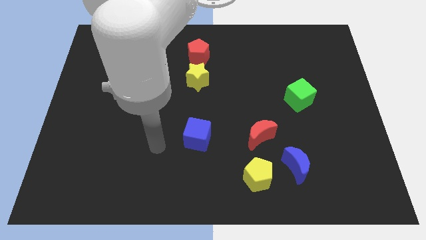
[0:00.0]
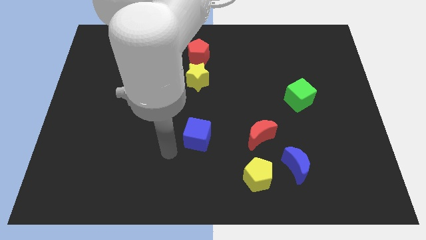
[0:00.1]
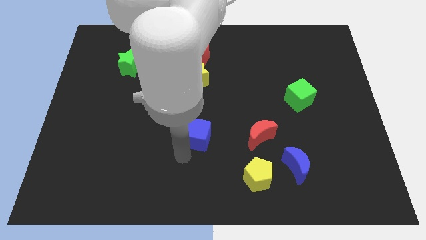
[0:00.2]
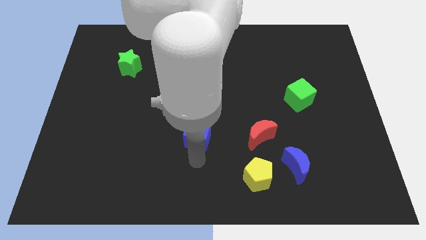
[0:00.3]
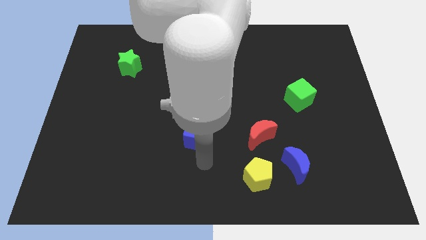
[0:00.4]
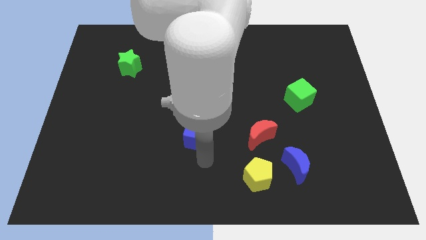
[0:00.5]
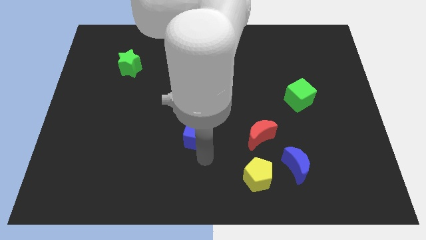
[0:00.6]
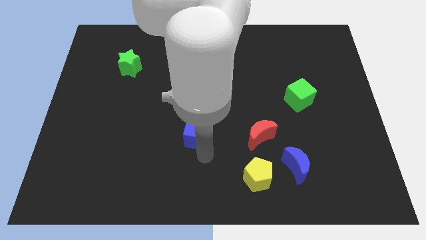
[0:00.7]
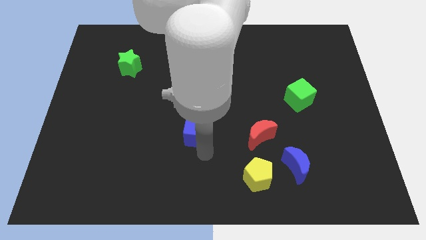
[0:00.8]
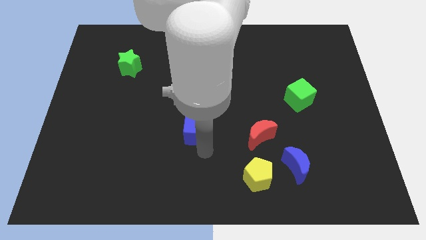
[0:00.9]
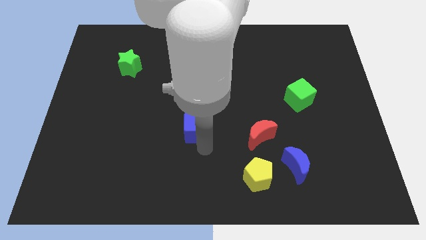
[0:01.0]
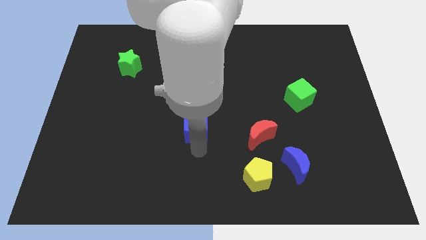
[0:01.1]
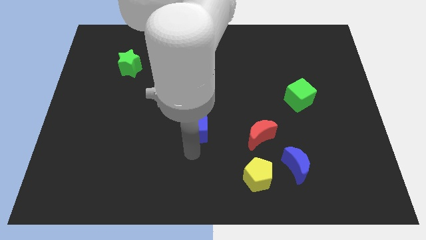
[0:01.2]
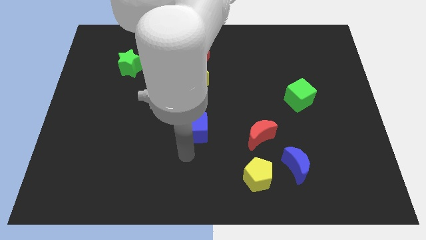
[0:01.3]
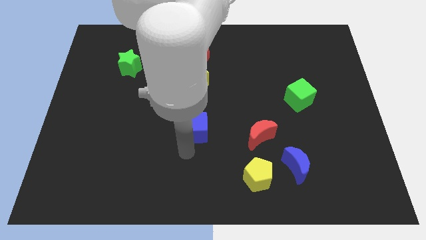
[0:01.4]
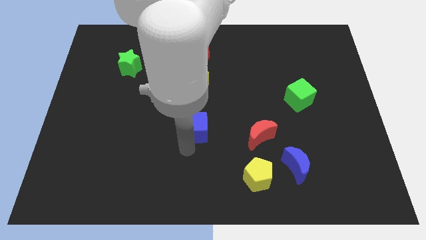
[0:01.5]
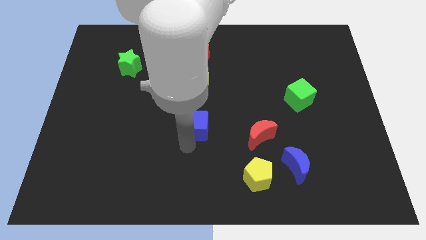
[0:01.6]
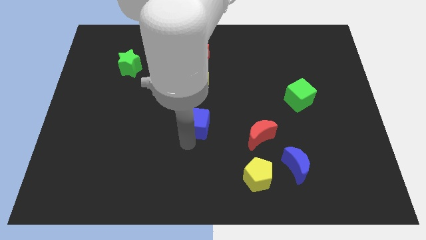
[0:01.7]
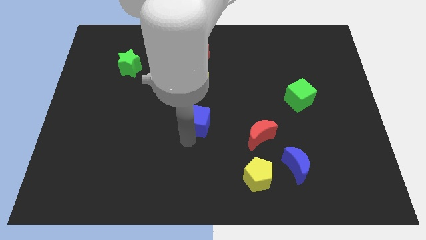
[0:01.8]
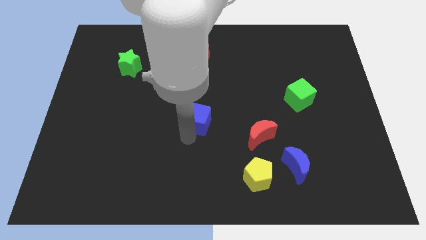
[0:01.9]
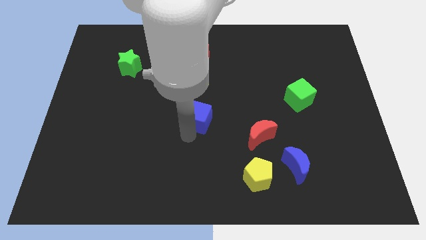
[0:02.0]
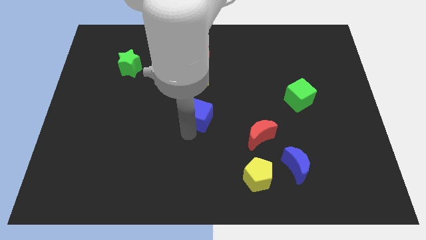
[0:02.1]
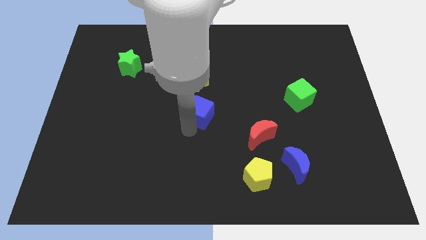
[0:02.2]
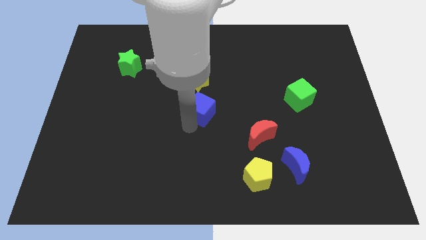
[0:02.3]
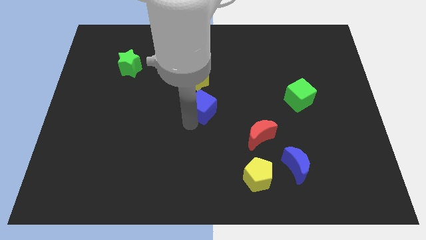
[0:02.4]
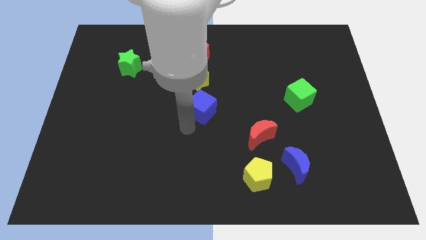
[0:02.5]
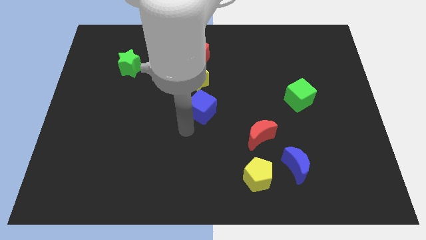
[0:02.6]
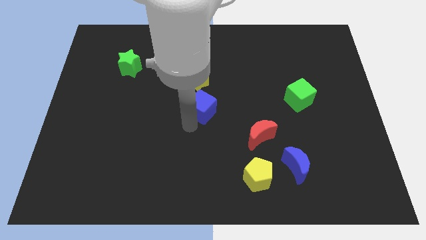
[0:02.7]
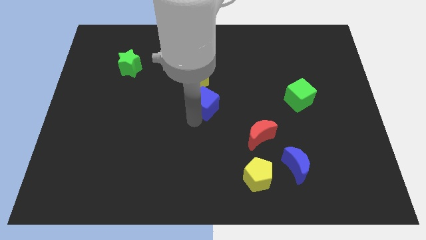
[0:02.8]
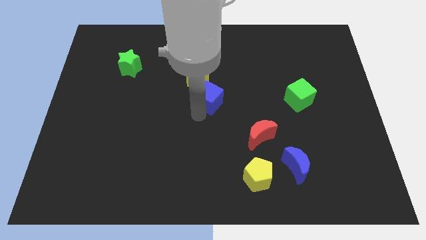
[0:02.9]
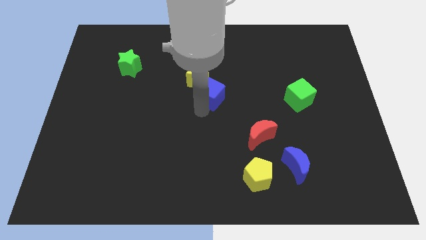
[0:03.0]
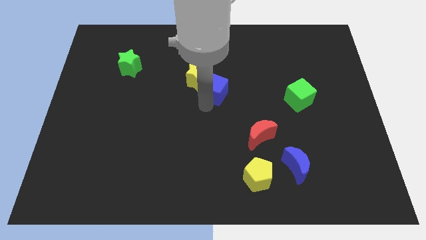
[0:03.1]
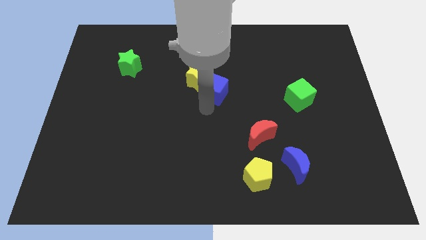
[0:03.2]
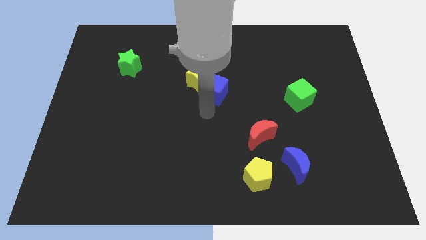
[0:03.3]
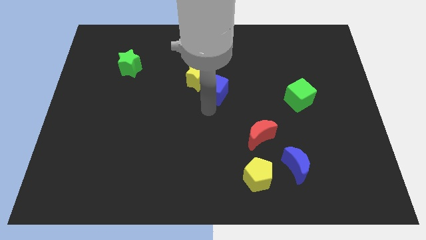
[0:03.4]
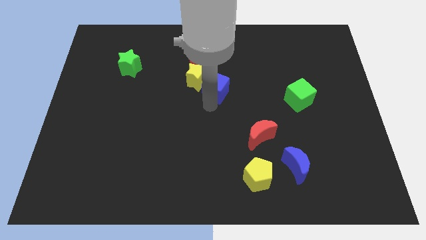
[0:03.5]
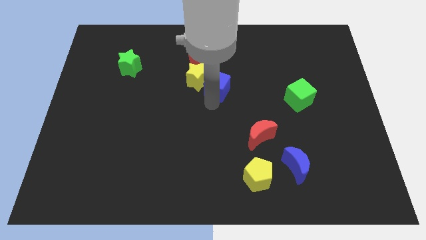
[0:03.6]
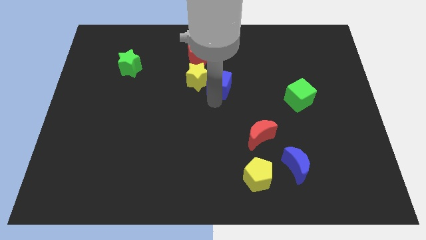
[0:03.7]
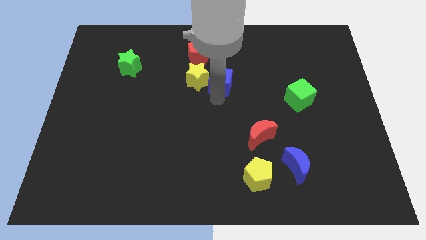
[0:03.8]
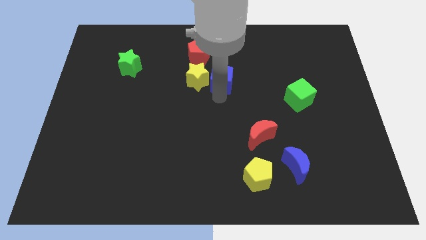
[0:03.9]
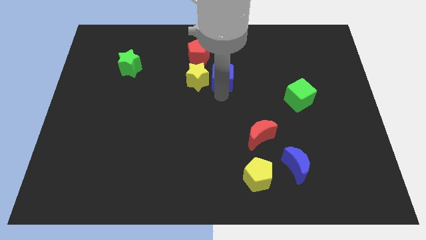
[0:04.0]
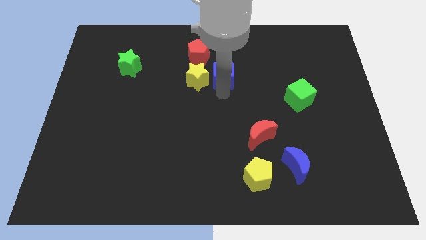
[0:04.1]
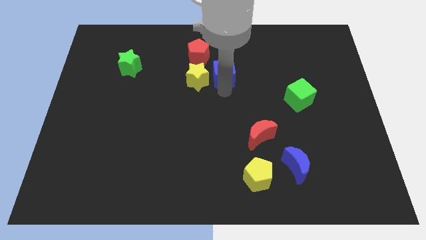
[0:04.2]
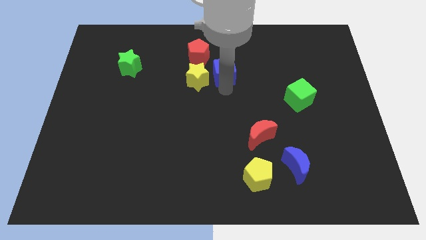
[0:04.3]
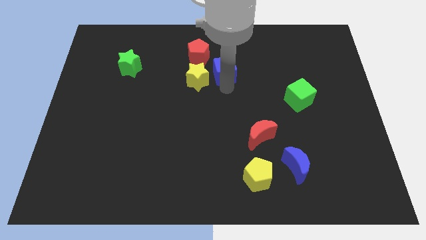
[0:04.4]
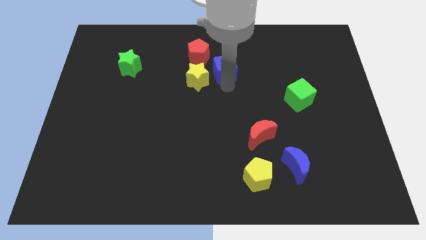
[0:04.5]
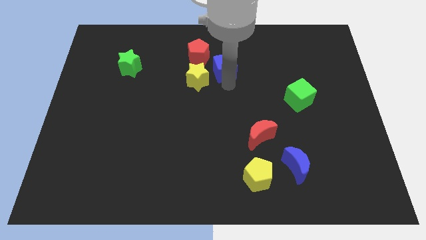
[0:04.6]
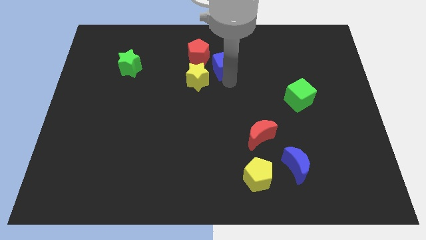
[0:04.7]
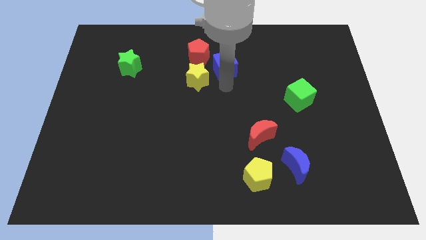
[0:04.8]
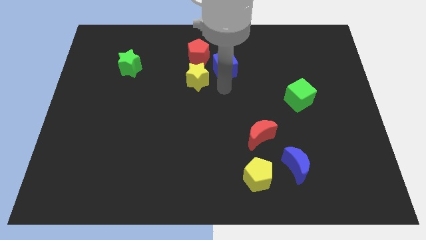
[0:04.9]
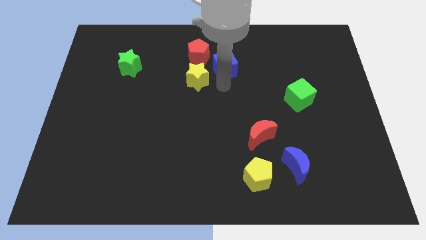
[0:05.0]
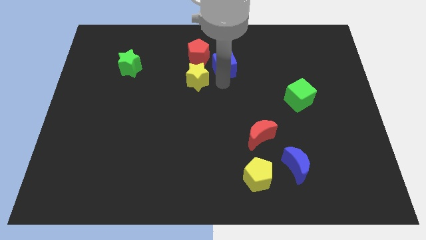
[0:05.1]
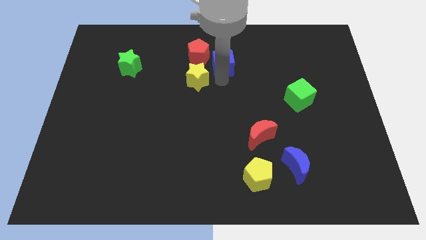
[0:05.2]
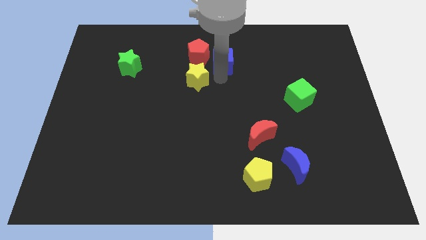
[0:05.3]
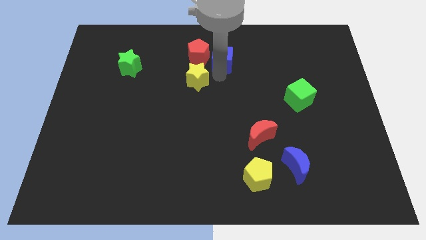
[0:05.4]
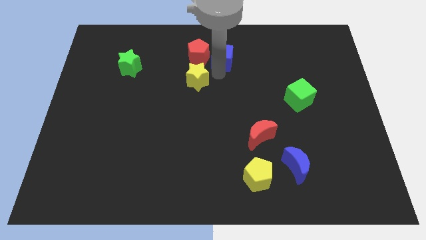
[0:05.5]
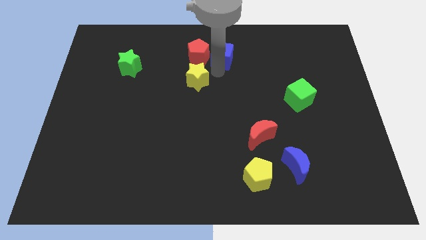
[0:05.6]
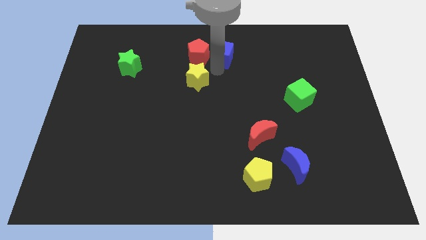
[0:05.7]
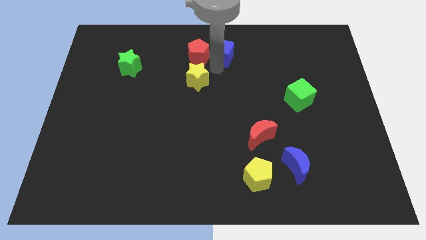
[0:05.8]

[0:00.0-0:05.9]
move the blue cube to the towards your base
